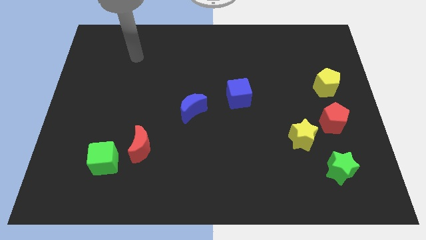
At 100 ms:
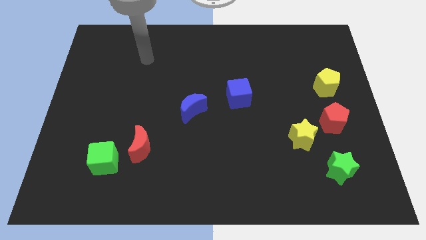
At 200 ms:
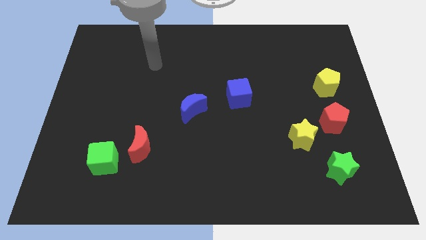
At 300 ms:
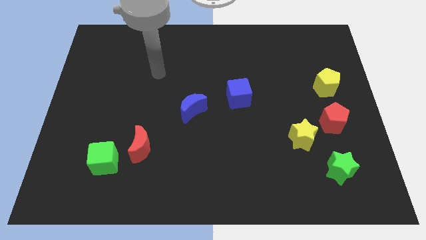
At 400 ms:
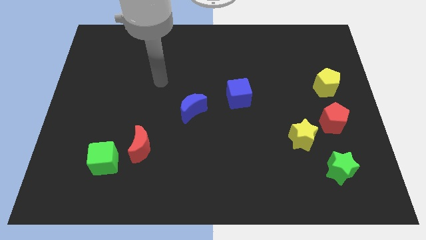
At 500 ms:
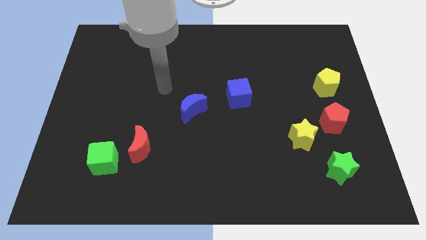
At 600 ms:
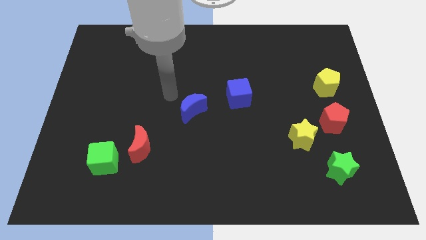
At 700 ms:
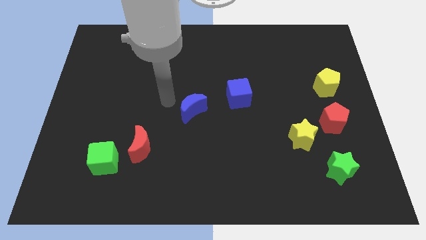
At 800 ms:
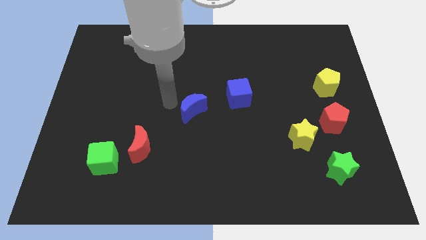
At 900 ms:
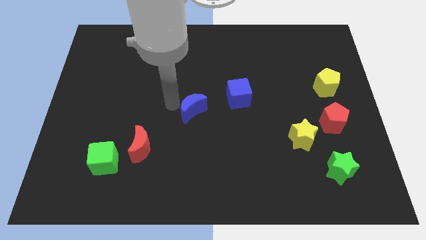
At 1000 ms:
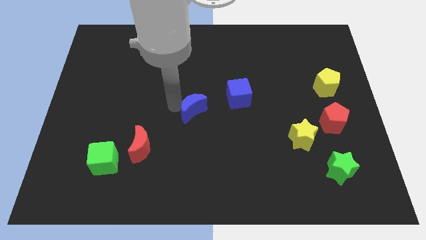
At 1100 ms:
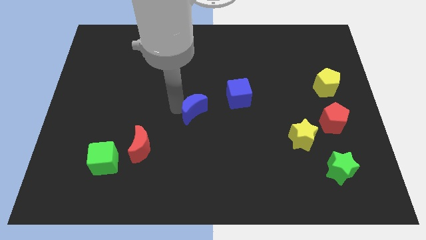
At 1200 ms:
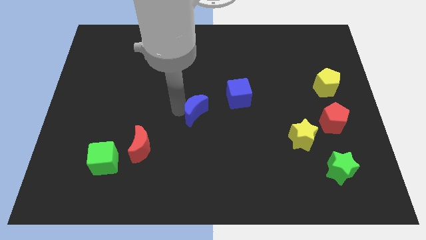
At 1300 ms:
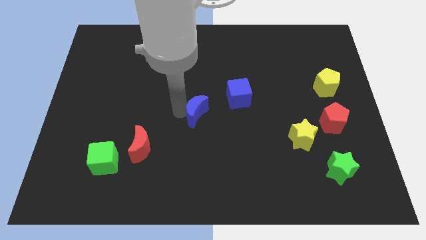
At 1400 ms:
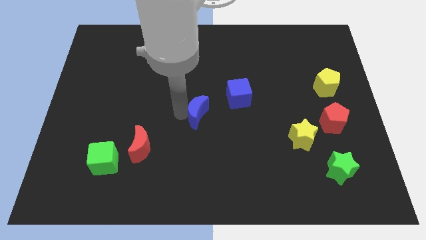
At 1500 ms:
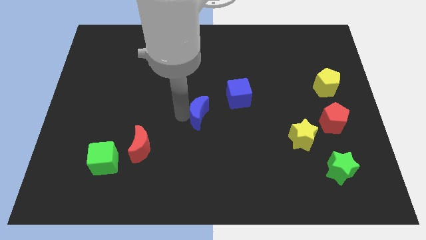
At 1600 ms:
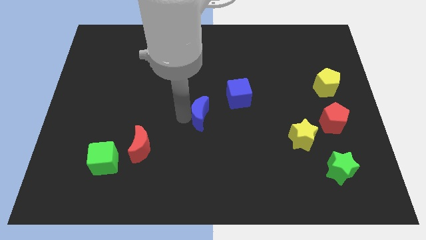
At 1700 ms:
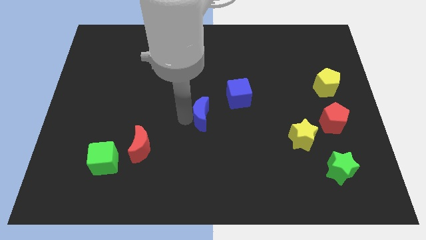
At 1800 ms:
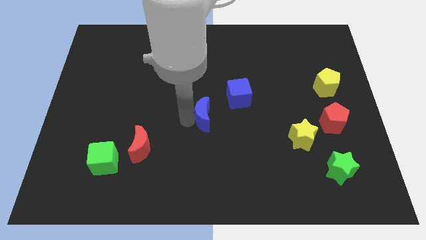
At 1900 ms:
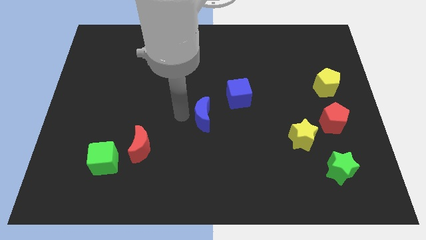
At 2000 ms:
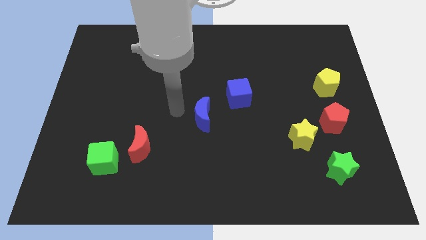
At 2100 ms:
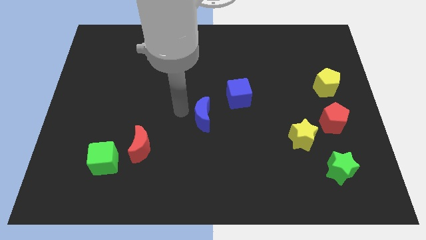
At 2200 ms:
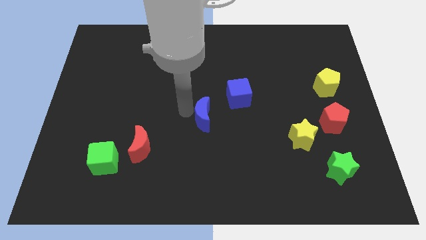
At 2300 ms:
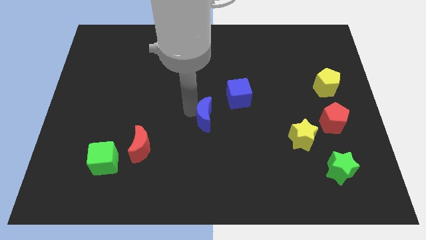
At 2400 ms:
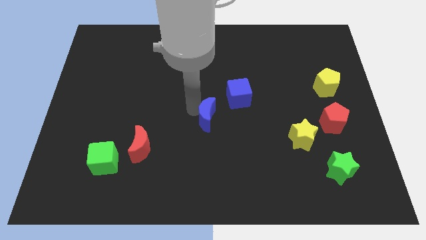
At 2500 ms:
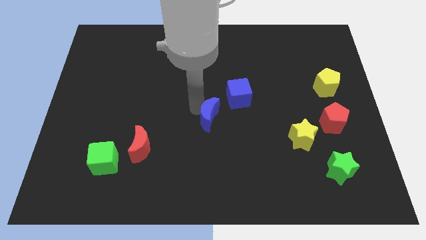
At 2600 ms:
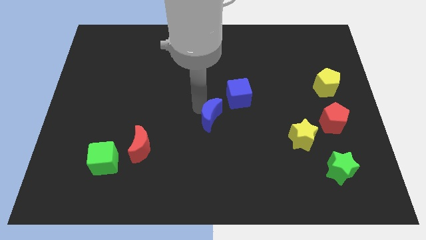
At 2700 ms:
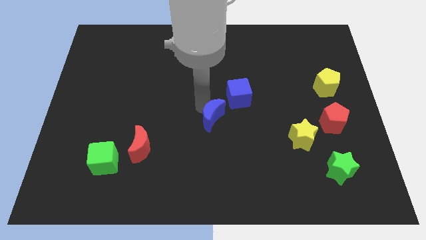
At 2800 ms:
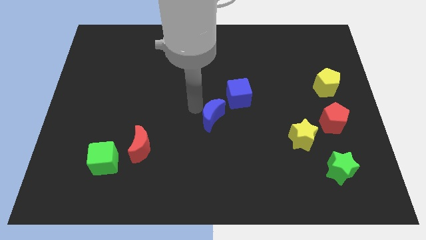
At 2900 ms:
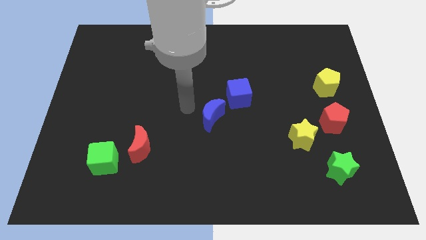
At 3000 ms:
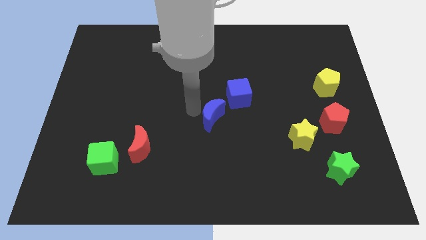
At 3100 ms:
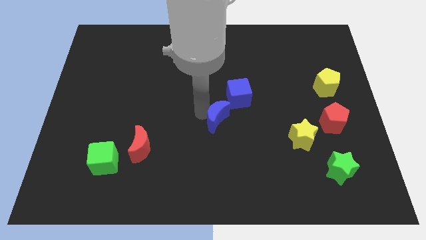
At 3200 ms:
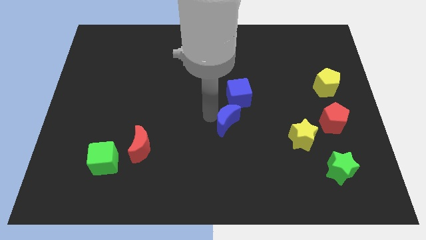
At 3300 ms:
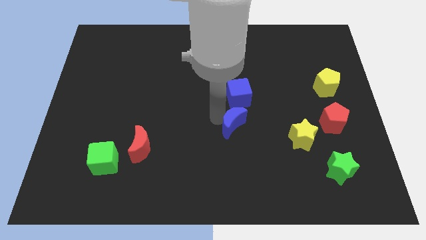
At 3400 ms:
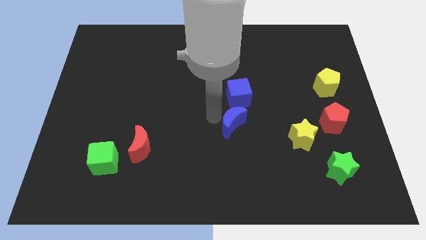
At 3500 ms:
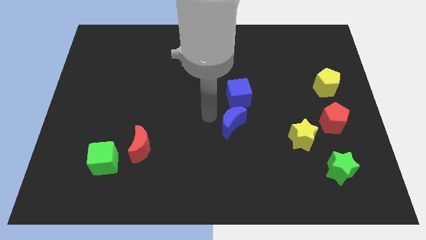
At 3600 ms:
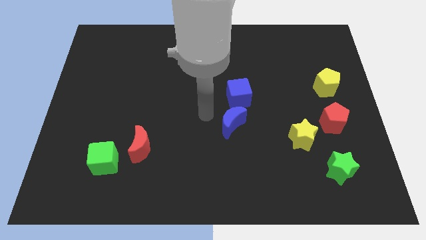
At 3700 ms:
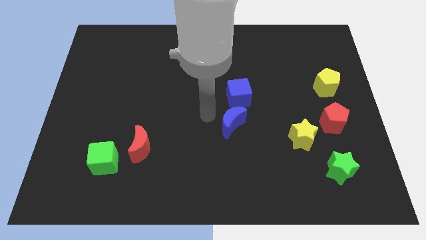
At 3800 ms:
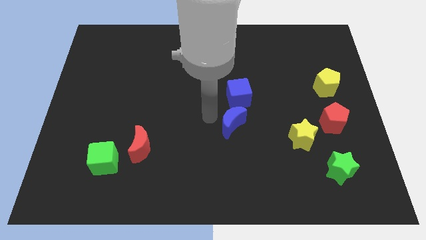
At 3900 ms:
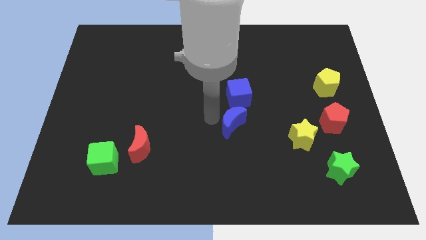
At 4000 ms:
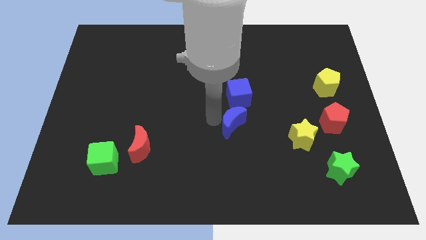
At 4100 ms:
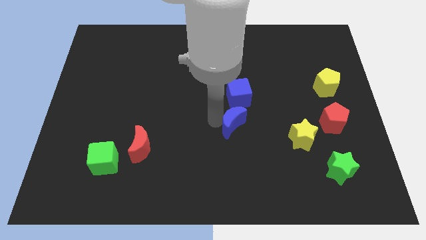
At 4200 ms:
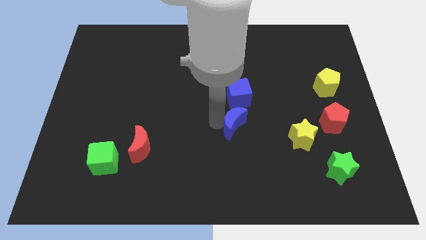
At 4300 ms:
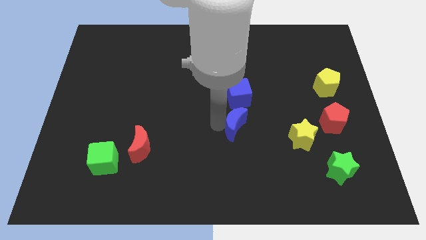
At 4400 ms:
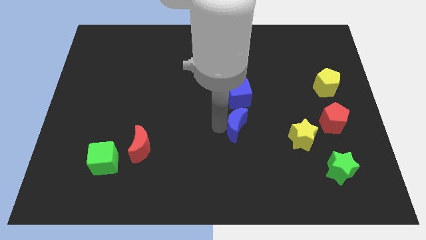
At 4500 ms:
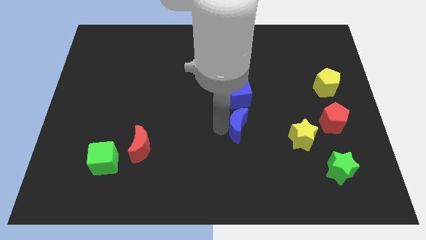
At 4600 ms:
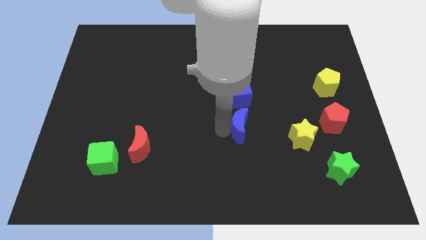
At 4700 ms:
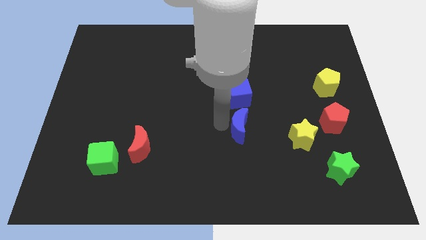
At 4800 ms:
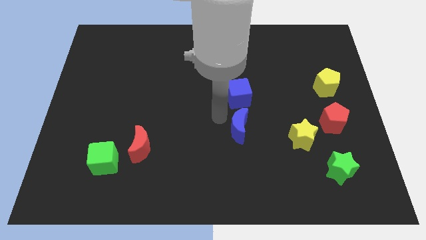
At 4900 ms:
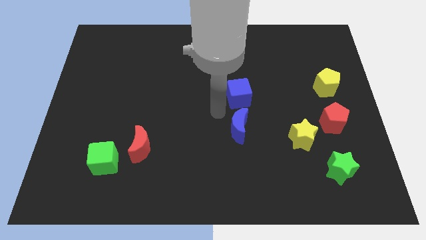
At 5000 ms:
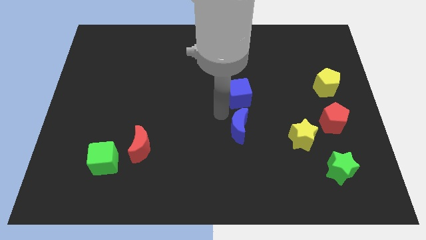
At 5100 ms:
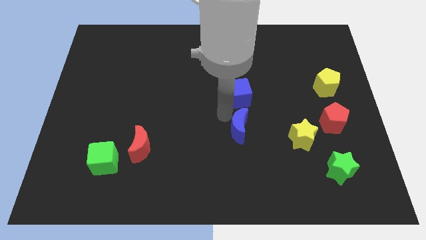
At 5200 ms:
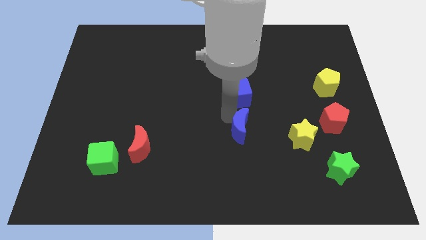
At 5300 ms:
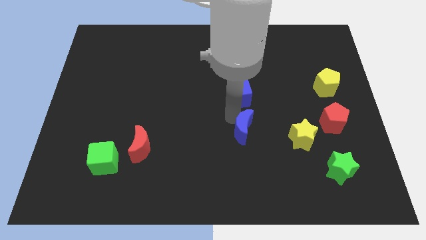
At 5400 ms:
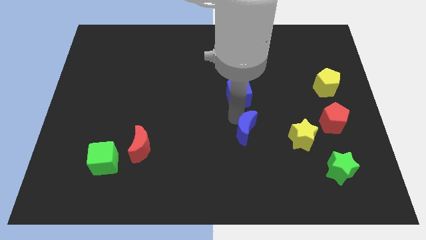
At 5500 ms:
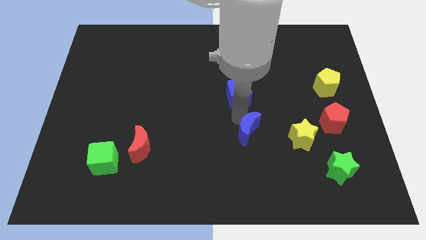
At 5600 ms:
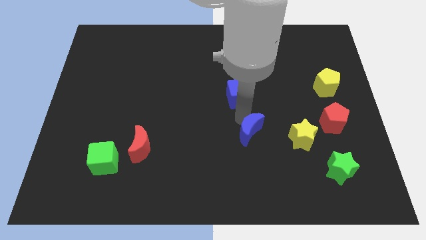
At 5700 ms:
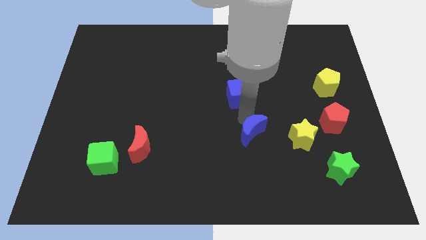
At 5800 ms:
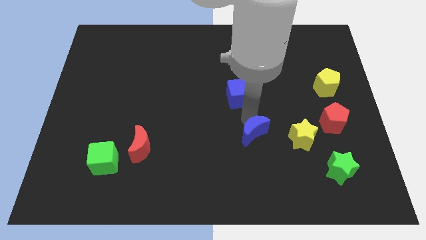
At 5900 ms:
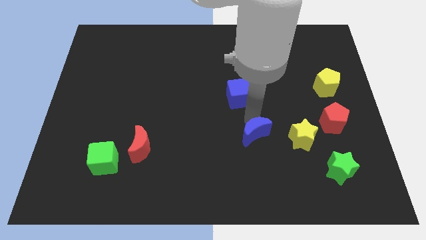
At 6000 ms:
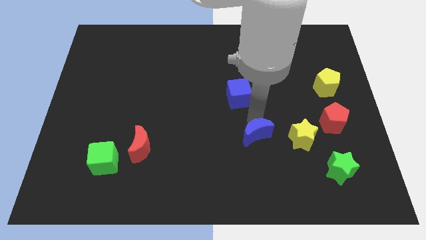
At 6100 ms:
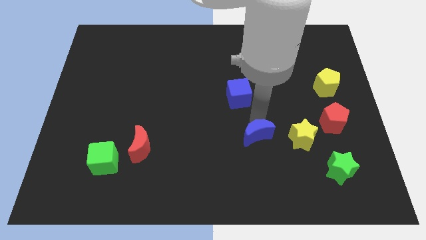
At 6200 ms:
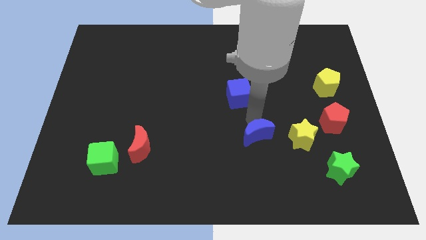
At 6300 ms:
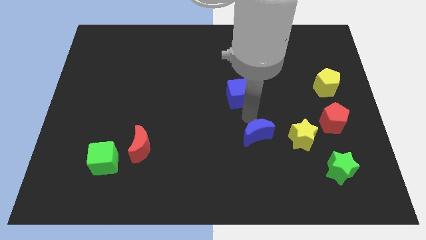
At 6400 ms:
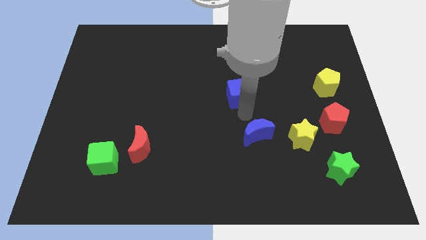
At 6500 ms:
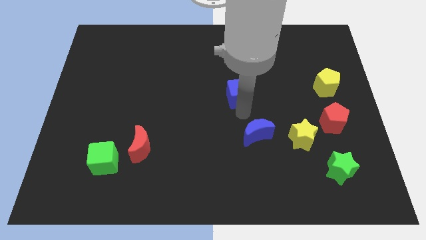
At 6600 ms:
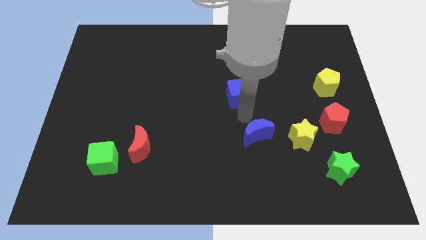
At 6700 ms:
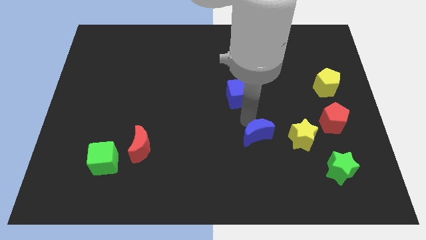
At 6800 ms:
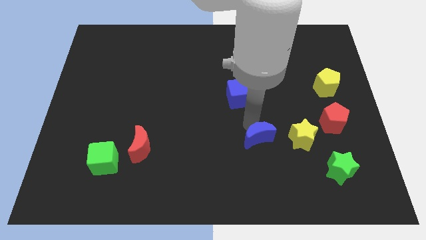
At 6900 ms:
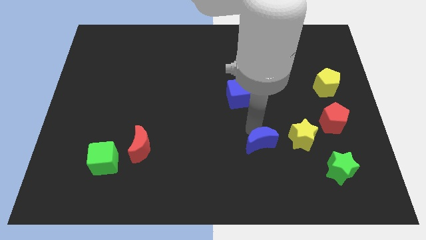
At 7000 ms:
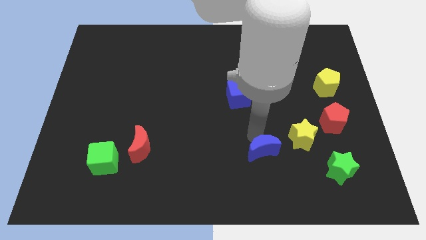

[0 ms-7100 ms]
push the blue moon to the bottom left side of the yellow star

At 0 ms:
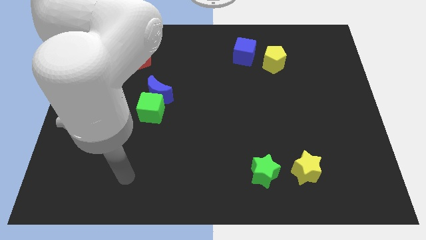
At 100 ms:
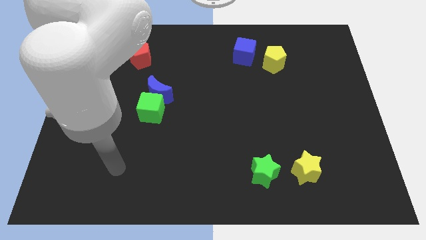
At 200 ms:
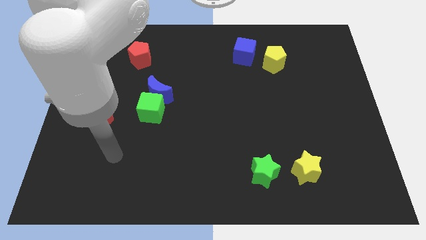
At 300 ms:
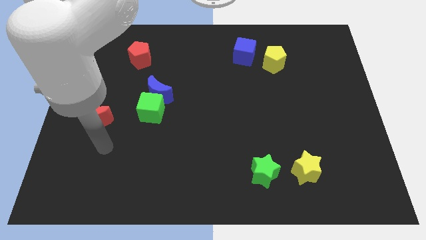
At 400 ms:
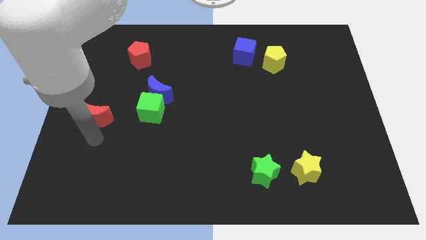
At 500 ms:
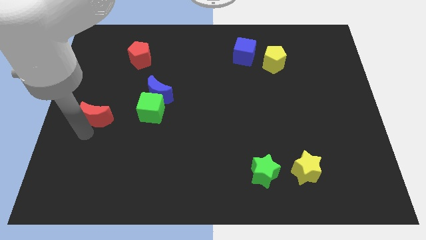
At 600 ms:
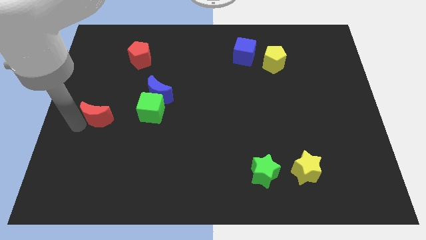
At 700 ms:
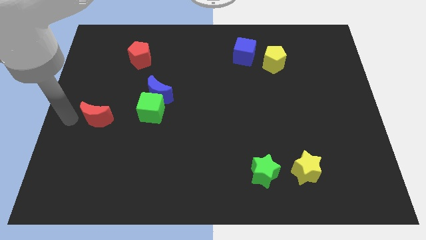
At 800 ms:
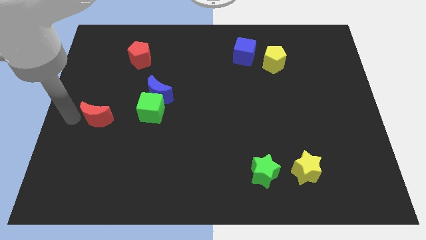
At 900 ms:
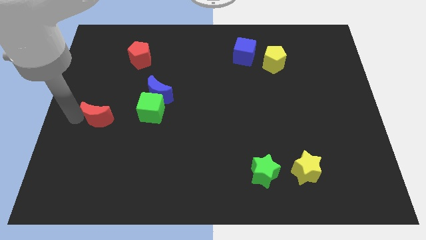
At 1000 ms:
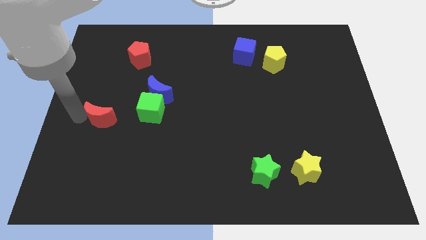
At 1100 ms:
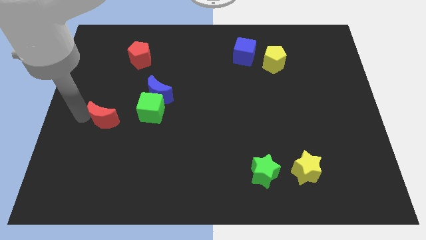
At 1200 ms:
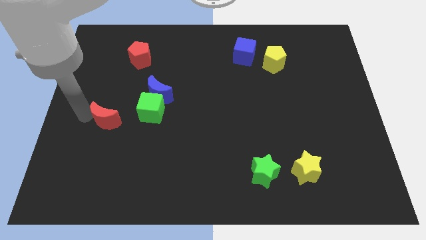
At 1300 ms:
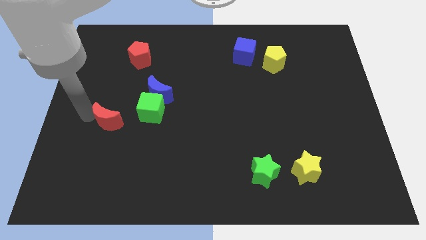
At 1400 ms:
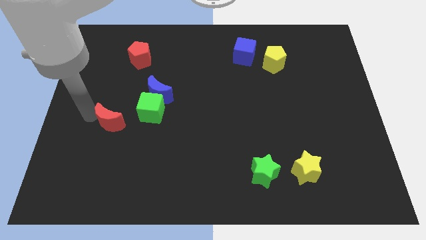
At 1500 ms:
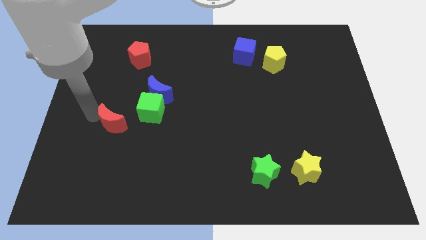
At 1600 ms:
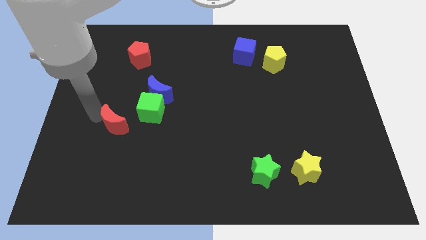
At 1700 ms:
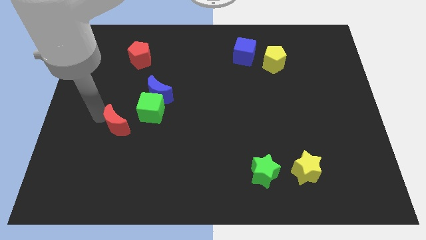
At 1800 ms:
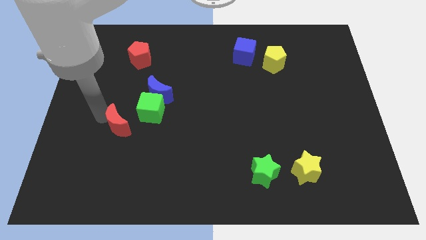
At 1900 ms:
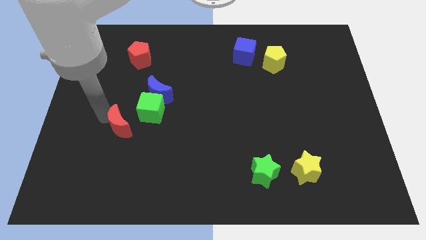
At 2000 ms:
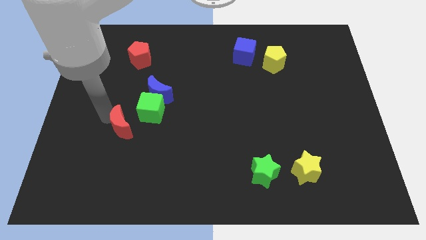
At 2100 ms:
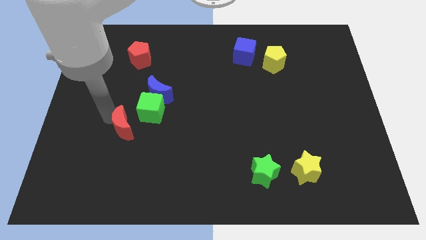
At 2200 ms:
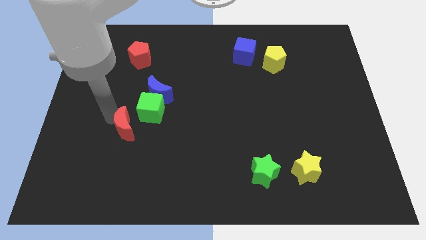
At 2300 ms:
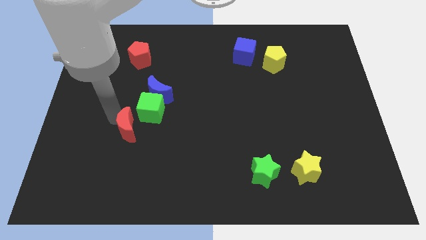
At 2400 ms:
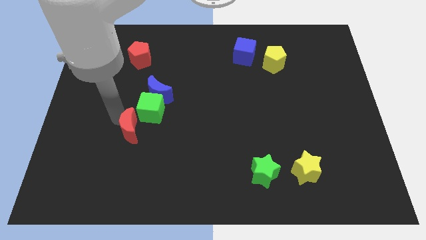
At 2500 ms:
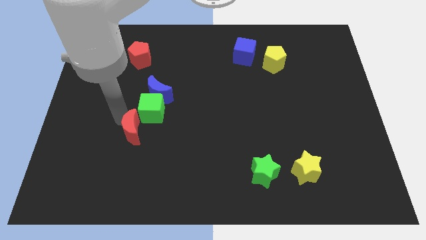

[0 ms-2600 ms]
put the red moon to the bottom side of the blue moon
